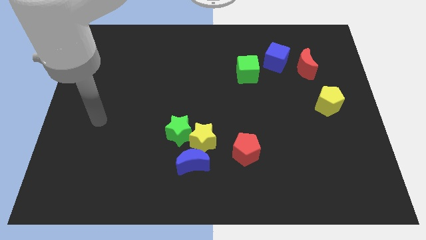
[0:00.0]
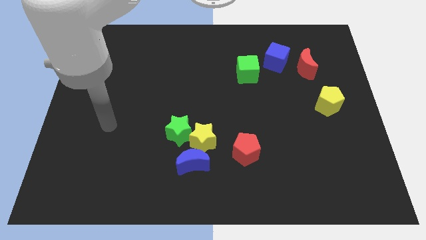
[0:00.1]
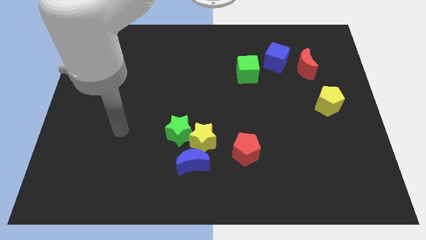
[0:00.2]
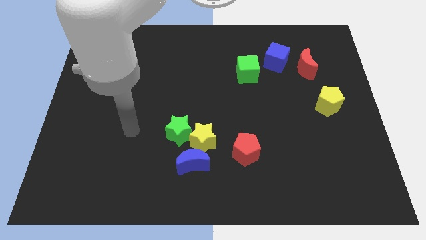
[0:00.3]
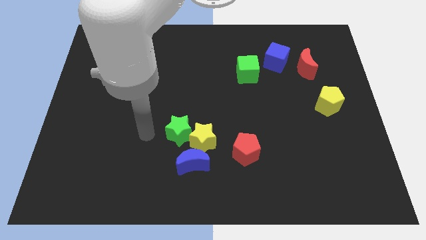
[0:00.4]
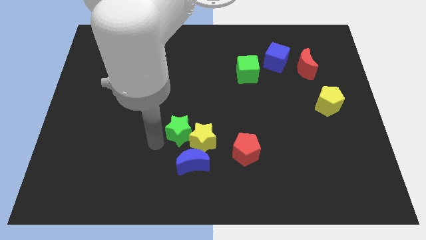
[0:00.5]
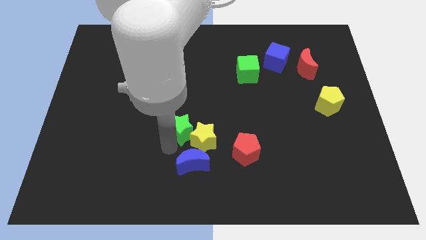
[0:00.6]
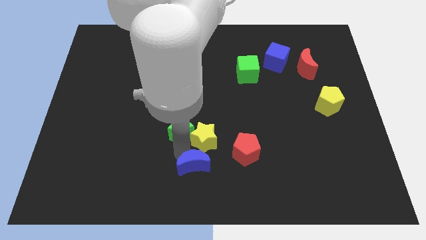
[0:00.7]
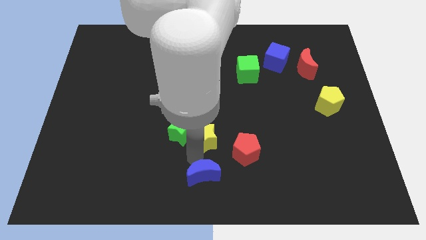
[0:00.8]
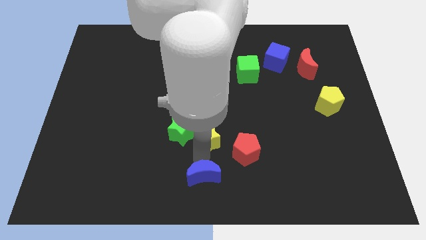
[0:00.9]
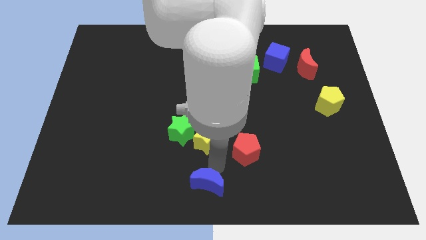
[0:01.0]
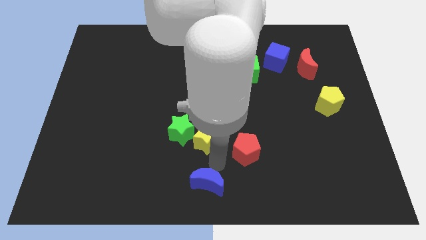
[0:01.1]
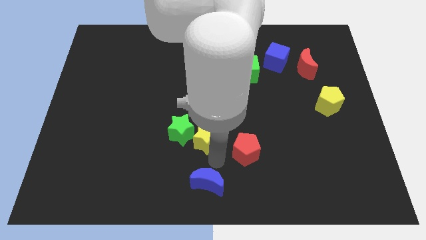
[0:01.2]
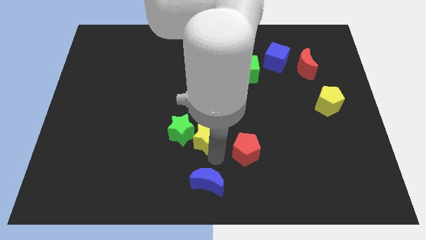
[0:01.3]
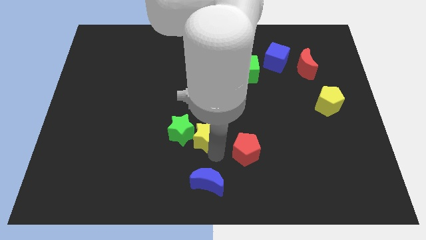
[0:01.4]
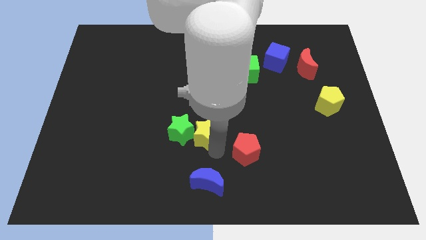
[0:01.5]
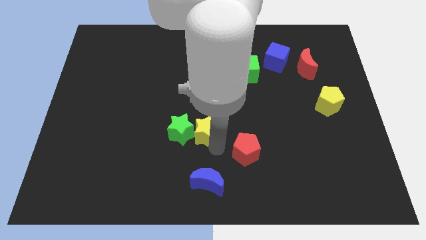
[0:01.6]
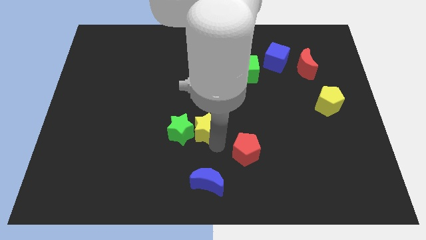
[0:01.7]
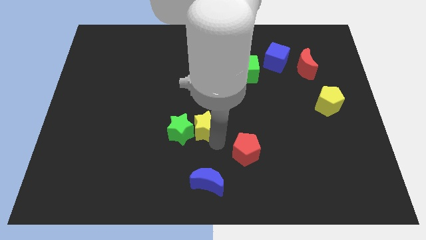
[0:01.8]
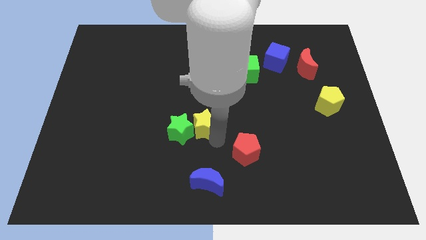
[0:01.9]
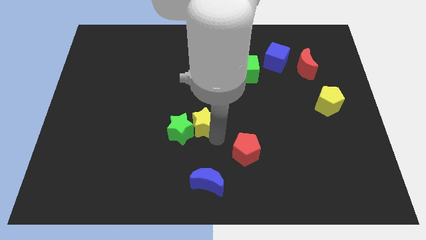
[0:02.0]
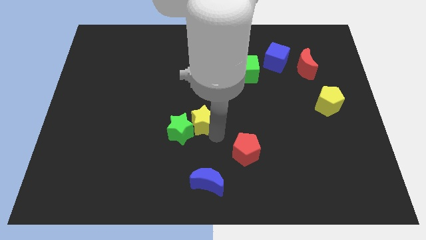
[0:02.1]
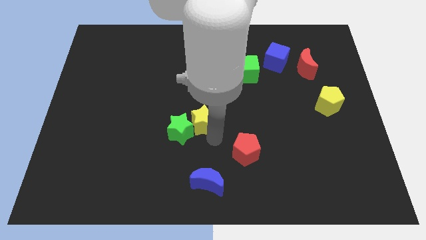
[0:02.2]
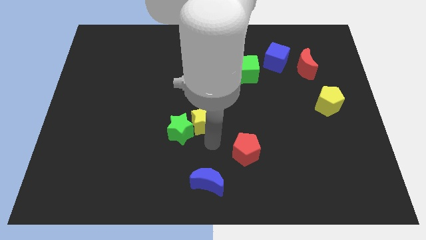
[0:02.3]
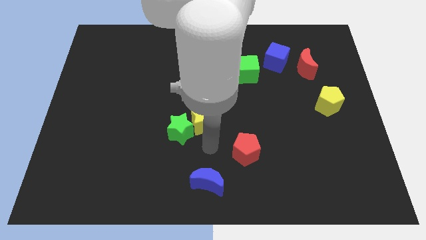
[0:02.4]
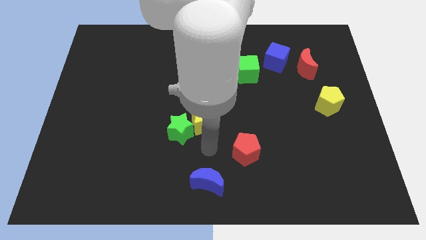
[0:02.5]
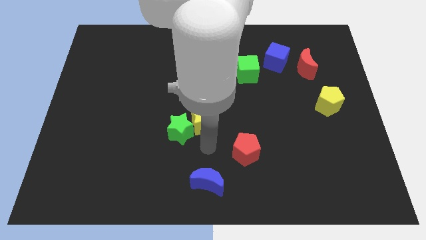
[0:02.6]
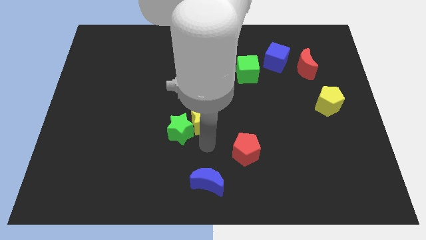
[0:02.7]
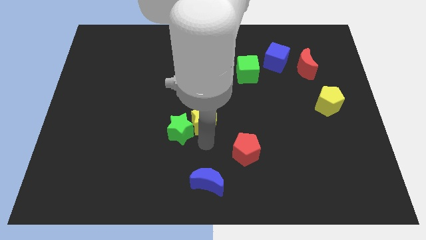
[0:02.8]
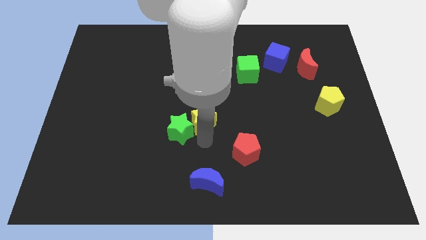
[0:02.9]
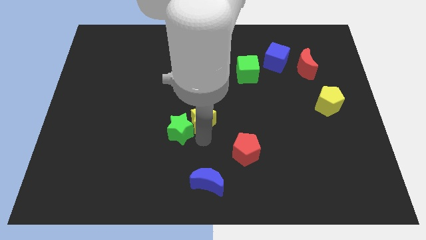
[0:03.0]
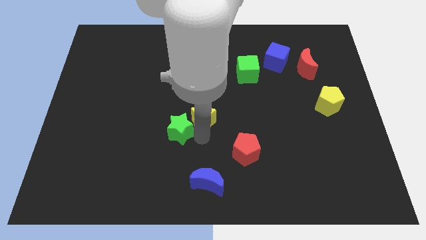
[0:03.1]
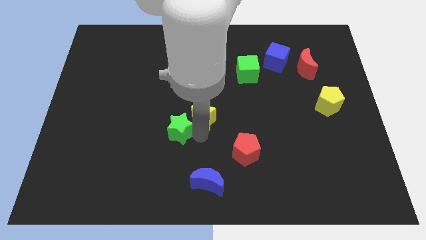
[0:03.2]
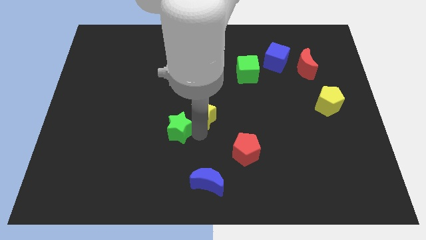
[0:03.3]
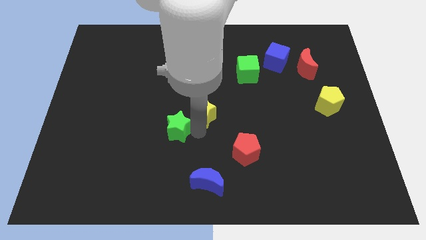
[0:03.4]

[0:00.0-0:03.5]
move the yellow star away from the blue moon, green star, and red pentagon

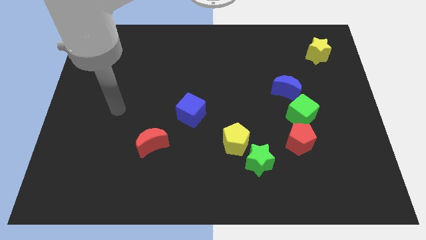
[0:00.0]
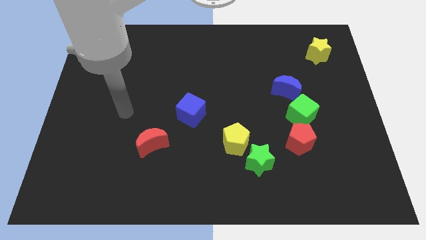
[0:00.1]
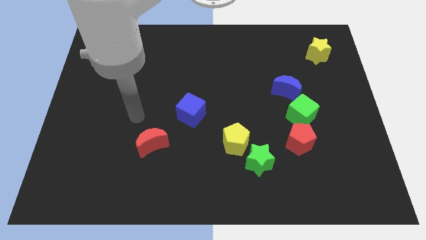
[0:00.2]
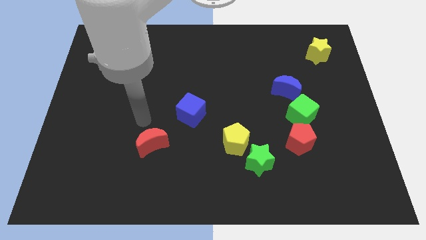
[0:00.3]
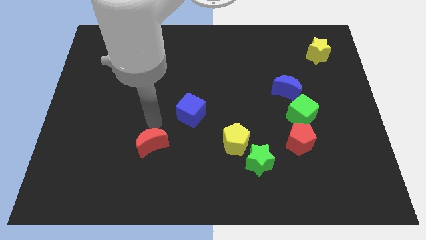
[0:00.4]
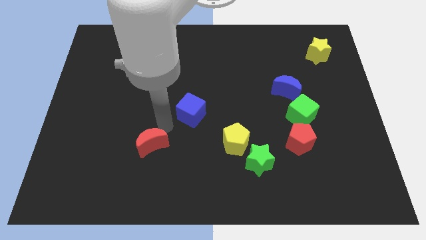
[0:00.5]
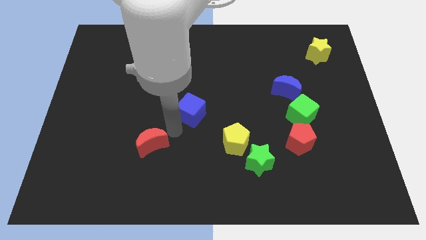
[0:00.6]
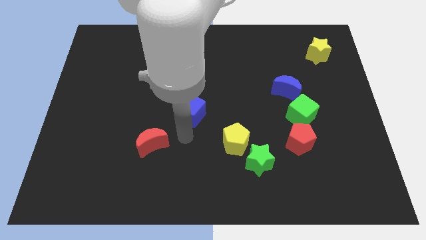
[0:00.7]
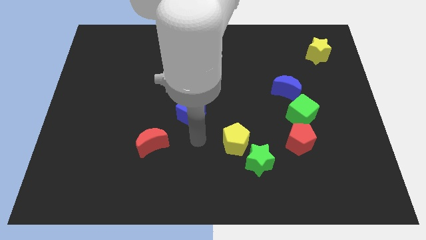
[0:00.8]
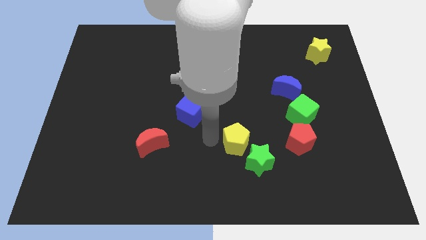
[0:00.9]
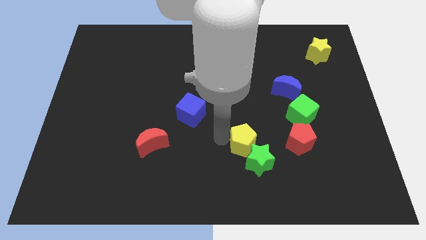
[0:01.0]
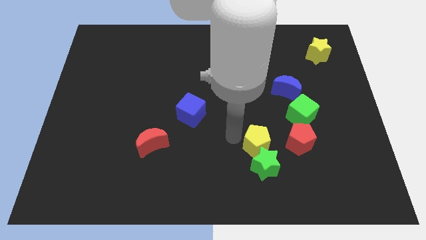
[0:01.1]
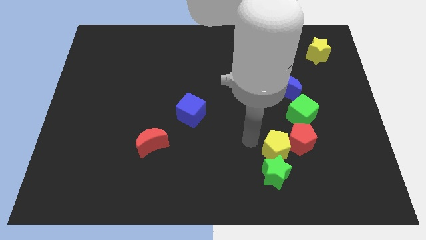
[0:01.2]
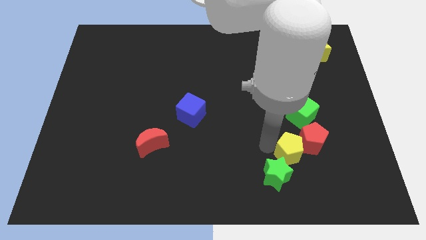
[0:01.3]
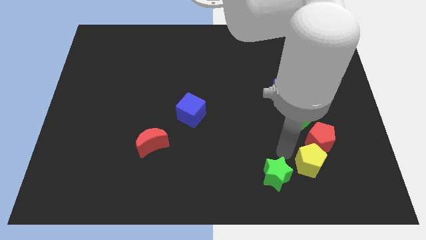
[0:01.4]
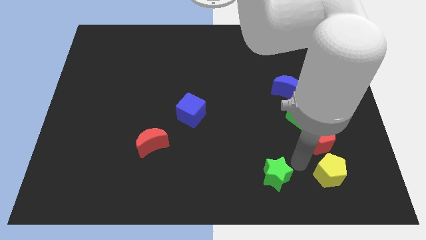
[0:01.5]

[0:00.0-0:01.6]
pull the green star apart from the yellow pentagon

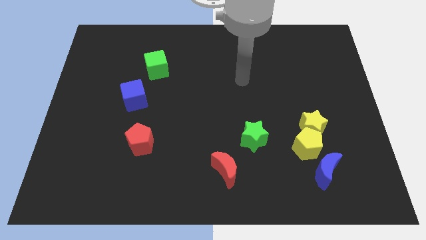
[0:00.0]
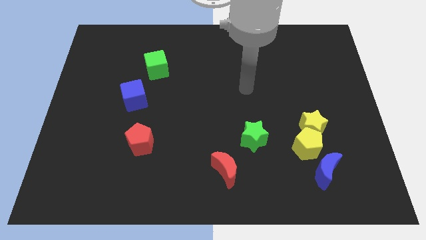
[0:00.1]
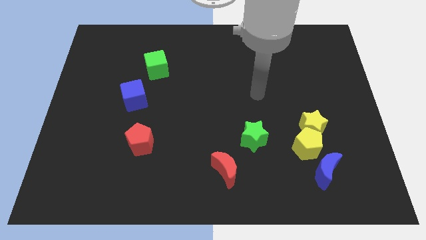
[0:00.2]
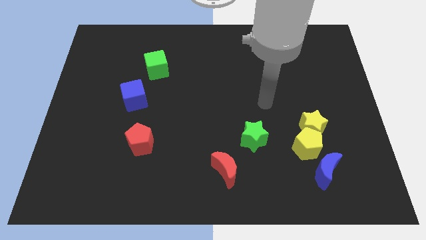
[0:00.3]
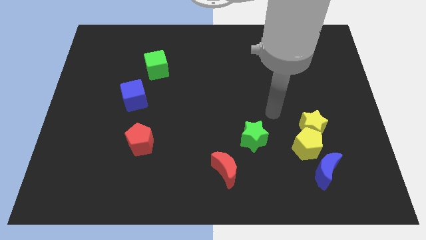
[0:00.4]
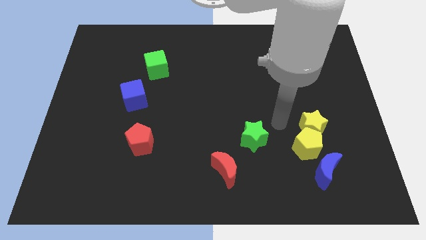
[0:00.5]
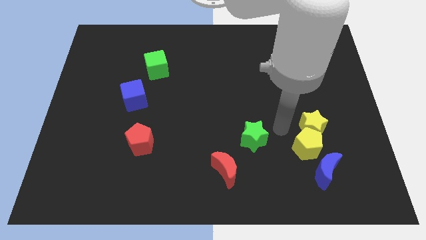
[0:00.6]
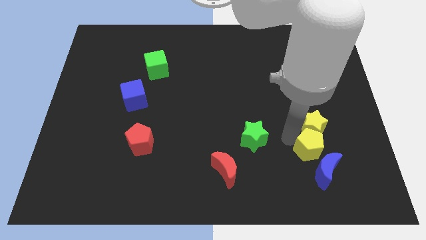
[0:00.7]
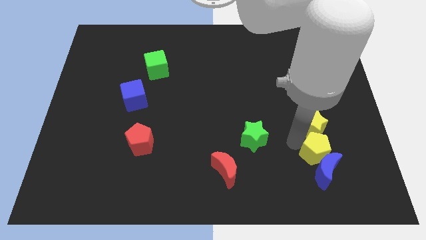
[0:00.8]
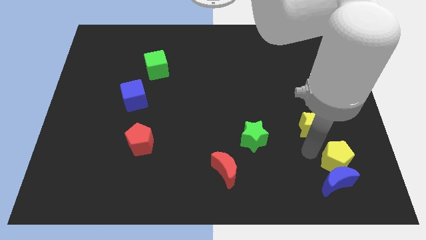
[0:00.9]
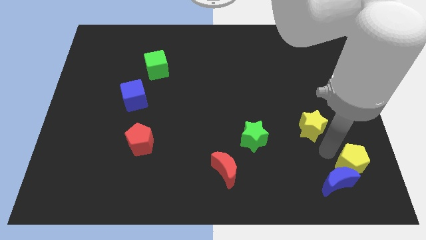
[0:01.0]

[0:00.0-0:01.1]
move the yellow star away from the yellow pentagon

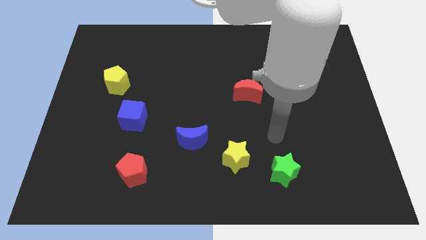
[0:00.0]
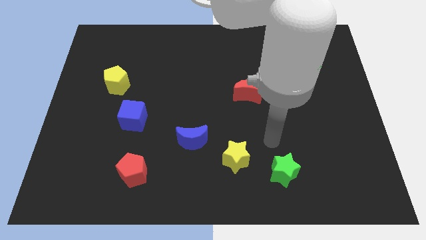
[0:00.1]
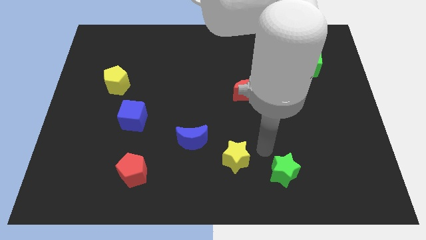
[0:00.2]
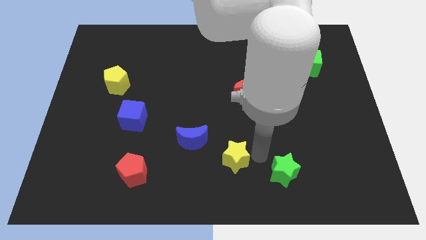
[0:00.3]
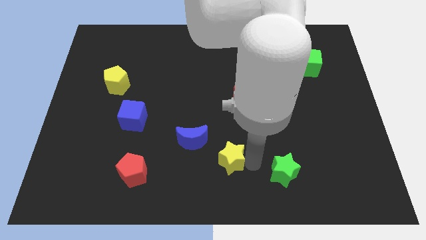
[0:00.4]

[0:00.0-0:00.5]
move the green star away from the yellow star

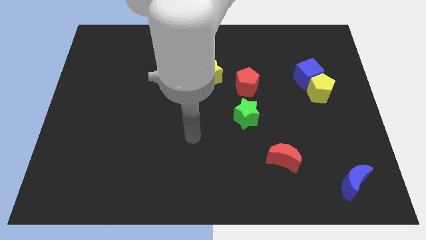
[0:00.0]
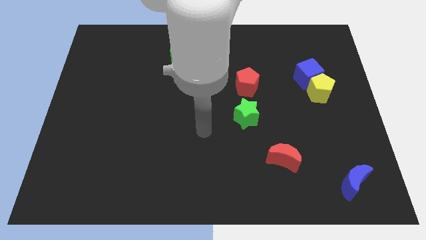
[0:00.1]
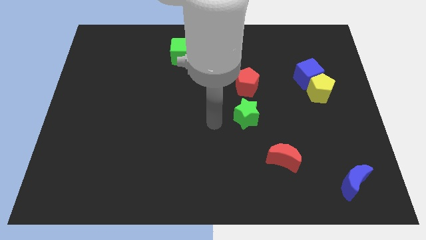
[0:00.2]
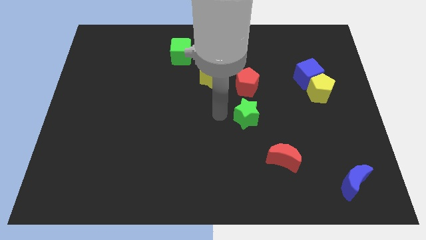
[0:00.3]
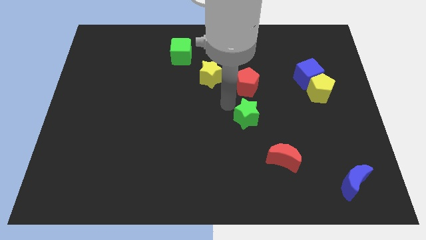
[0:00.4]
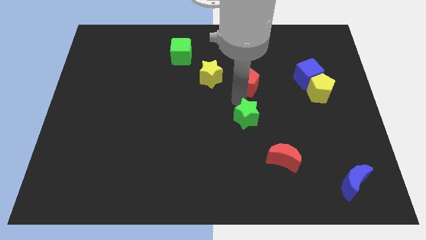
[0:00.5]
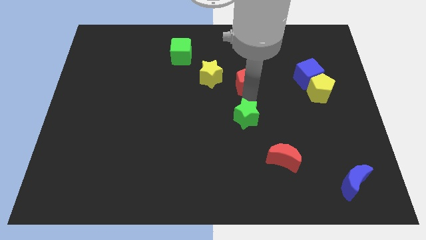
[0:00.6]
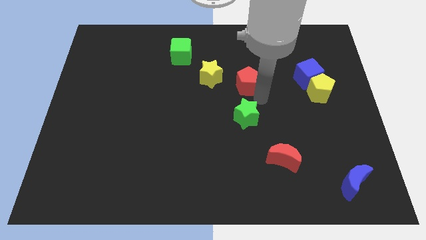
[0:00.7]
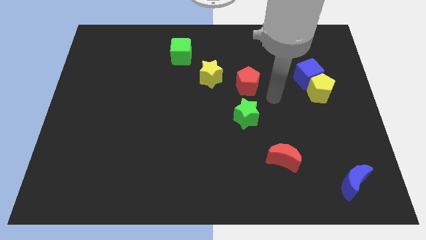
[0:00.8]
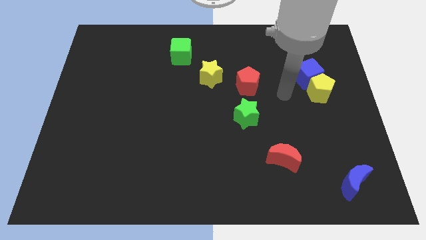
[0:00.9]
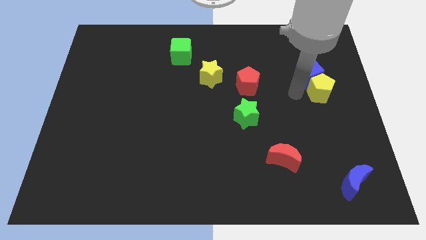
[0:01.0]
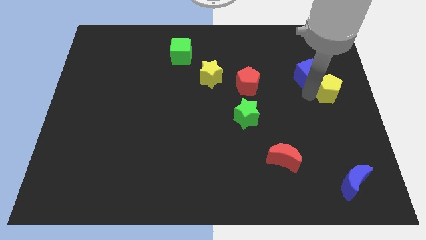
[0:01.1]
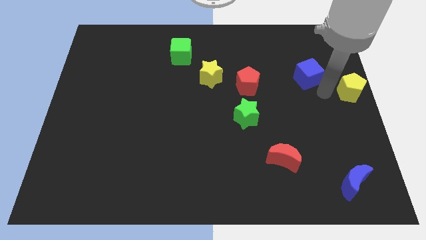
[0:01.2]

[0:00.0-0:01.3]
pull the blue cube apart from the yellow pentagon

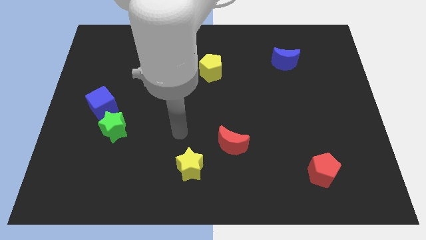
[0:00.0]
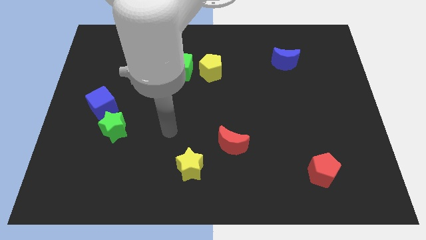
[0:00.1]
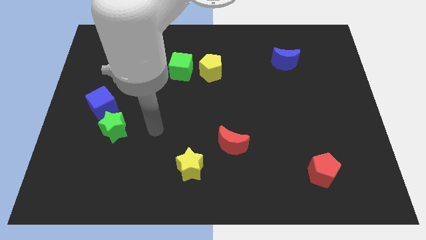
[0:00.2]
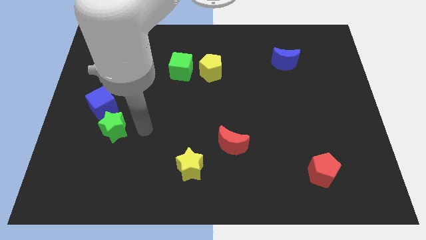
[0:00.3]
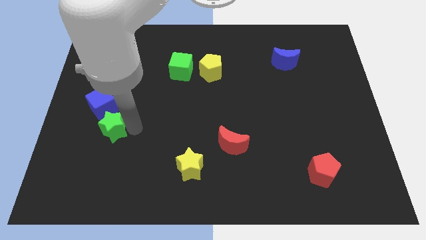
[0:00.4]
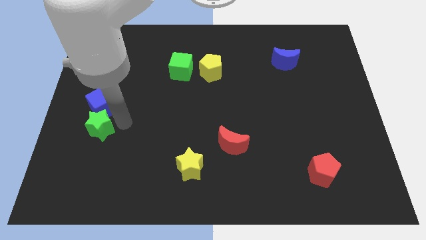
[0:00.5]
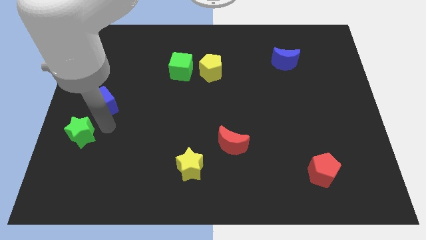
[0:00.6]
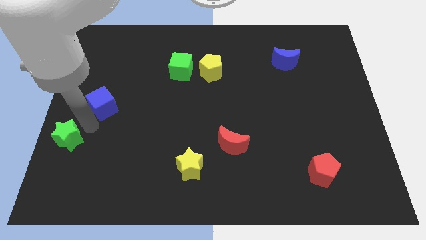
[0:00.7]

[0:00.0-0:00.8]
pull the blue cube apart from the green star

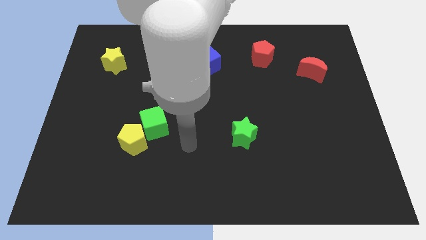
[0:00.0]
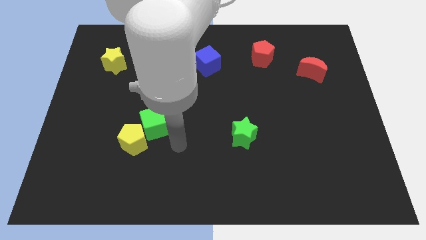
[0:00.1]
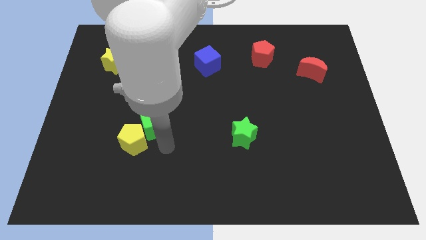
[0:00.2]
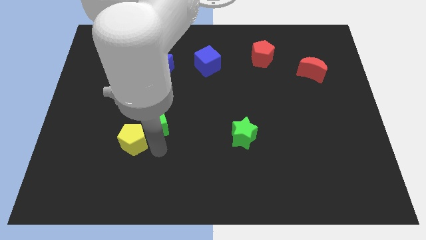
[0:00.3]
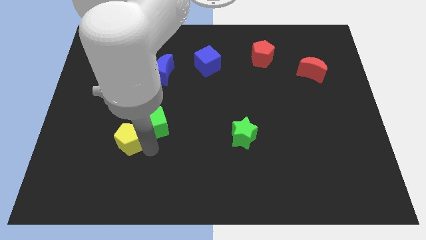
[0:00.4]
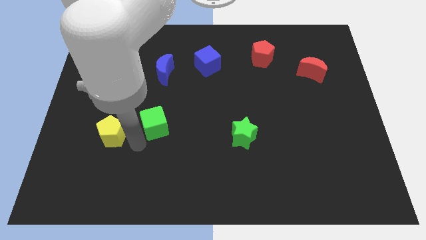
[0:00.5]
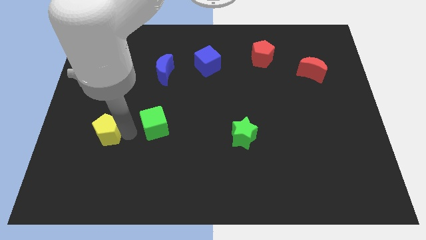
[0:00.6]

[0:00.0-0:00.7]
pull the green cube apart from the yellow pentagon

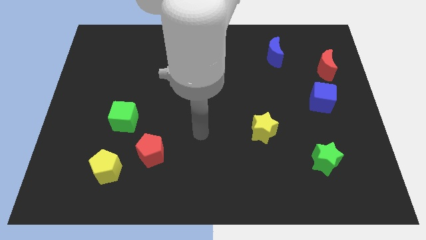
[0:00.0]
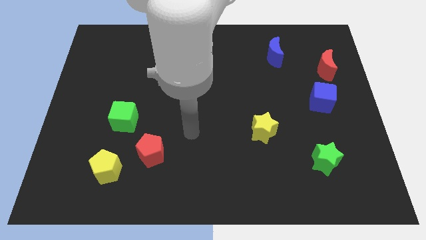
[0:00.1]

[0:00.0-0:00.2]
pull the red pentagon apart from the yellow pentagon
